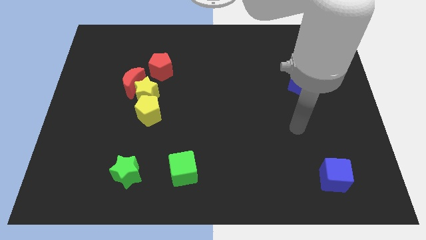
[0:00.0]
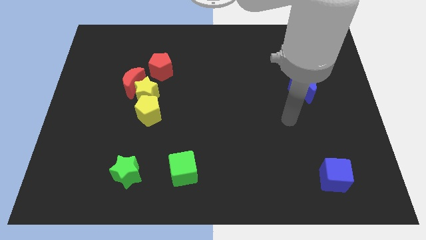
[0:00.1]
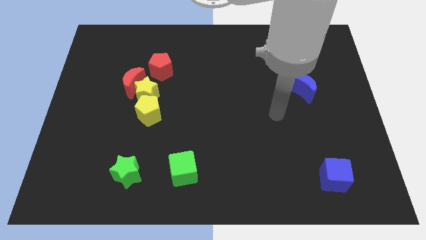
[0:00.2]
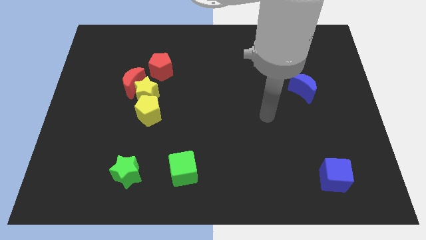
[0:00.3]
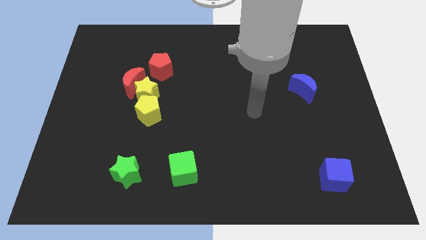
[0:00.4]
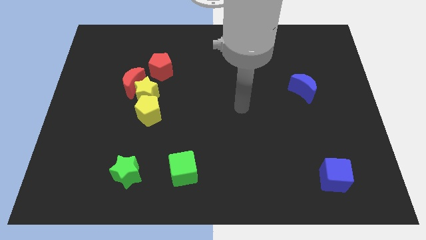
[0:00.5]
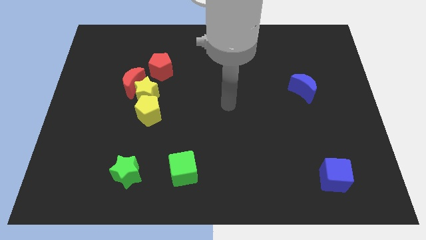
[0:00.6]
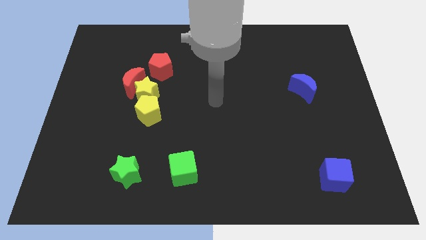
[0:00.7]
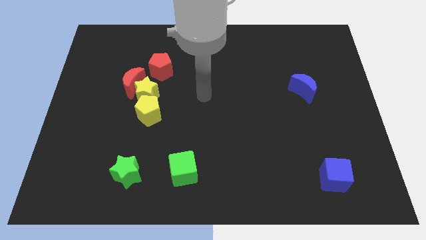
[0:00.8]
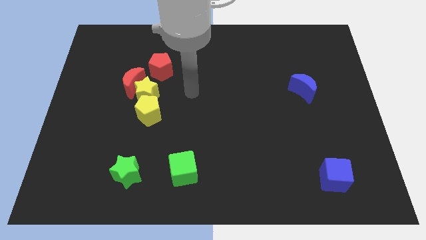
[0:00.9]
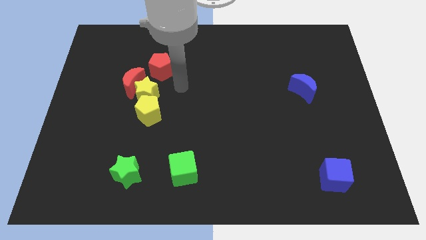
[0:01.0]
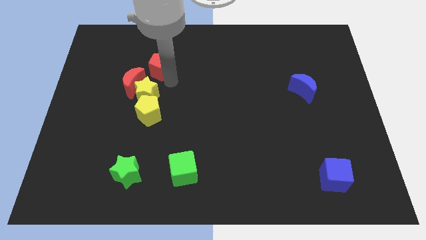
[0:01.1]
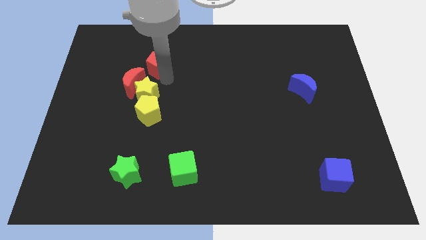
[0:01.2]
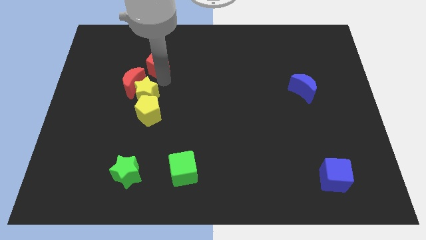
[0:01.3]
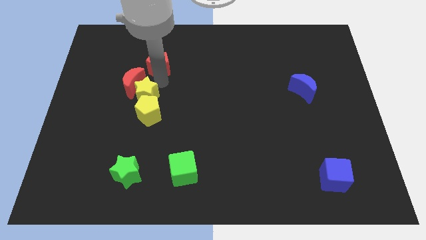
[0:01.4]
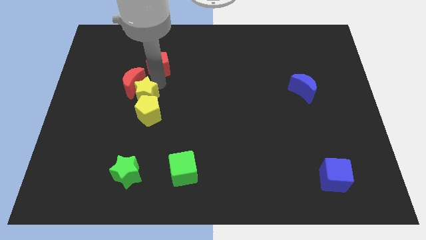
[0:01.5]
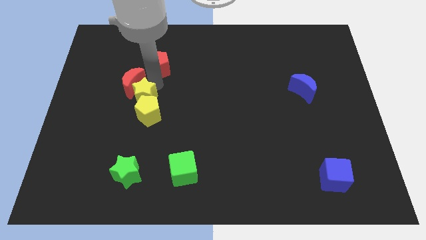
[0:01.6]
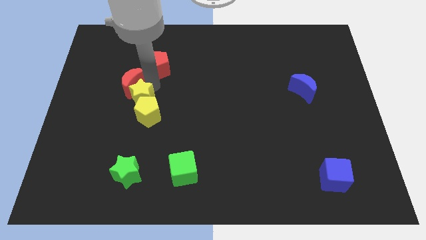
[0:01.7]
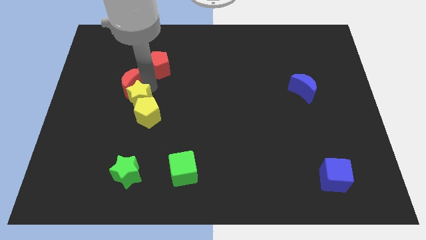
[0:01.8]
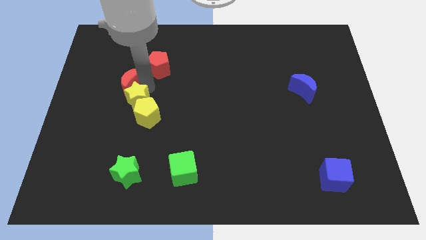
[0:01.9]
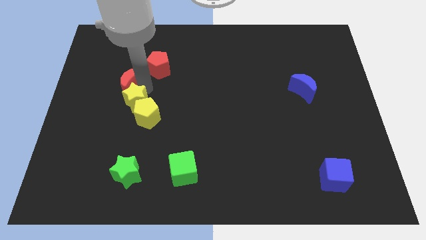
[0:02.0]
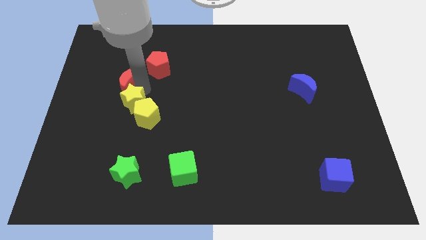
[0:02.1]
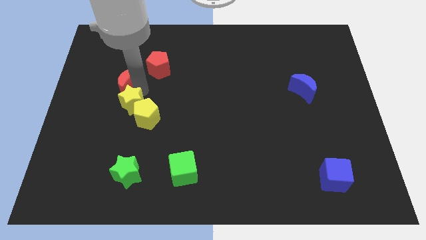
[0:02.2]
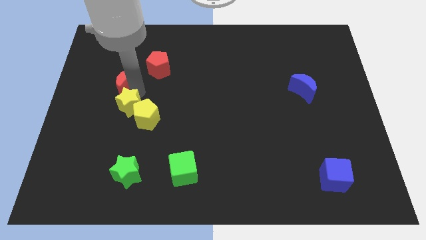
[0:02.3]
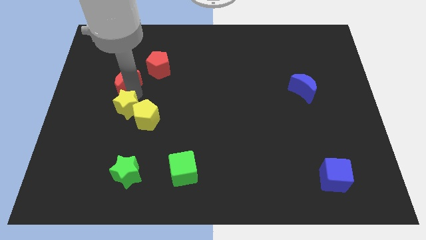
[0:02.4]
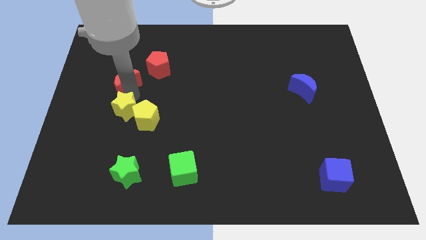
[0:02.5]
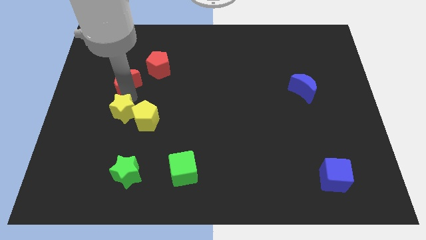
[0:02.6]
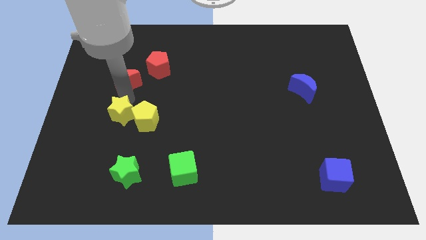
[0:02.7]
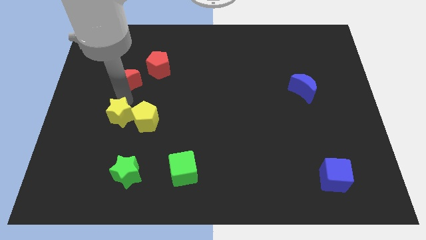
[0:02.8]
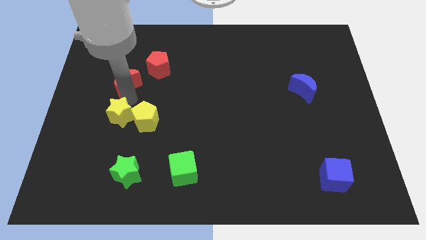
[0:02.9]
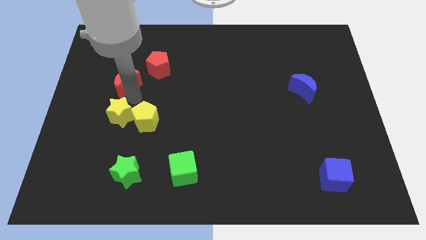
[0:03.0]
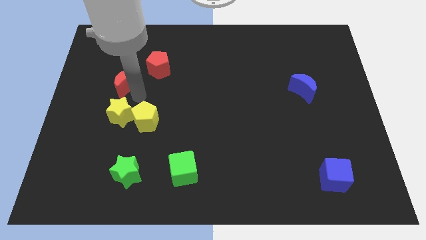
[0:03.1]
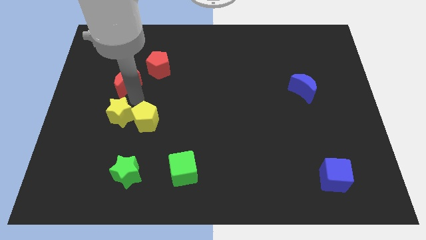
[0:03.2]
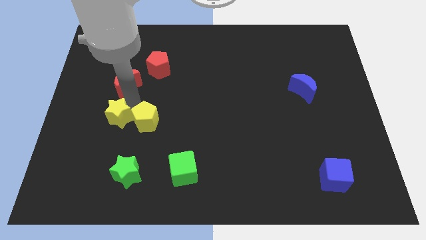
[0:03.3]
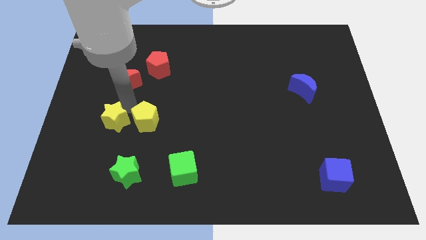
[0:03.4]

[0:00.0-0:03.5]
move the yellow star away from the group of blocks

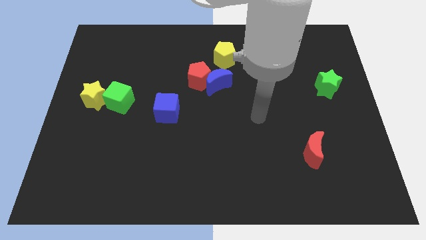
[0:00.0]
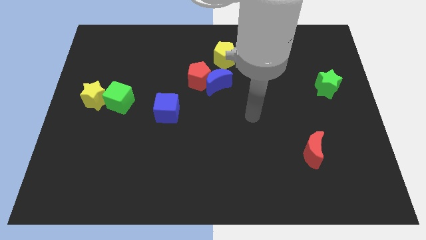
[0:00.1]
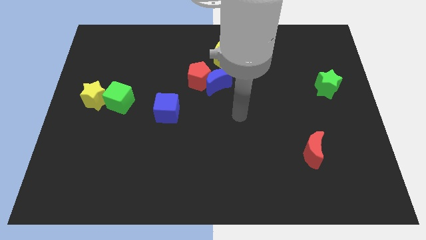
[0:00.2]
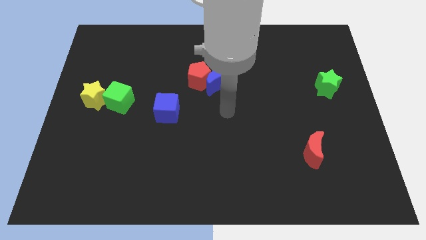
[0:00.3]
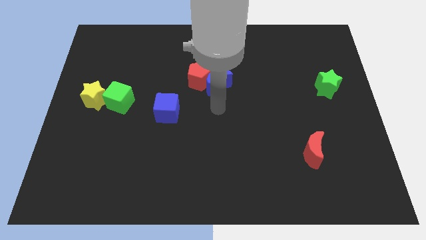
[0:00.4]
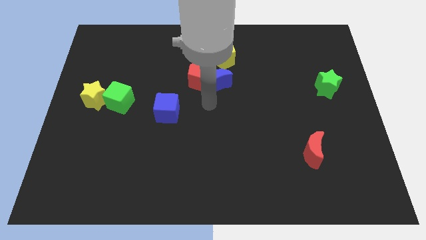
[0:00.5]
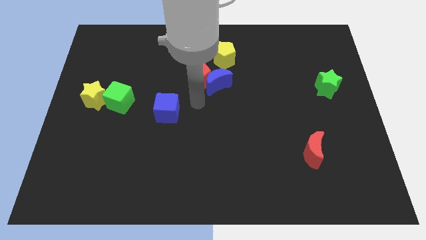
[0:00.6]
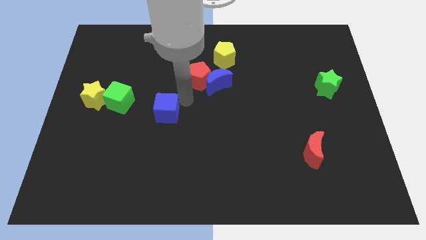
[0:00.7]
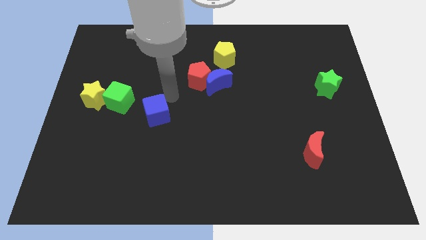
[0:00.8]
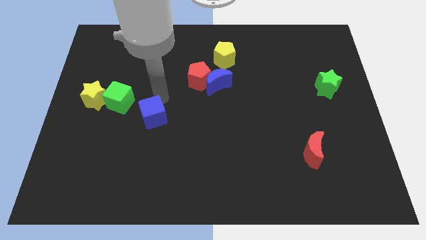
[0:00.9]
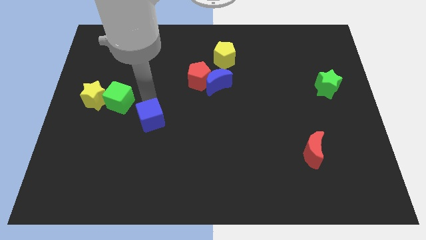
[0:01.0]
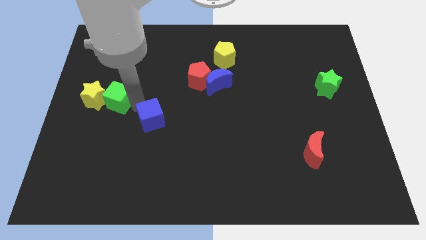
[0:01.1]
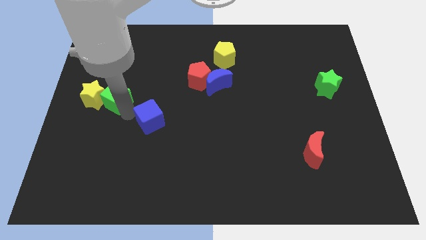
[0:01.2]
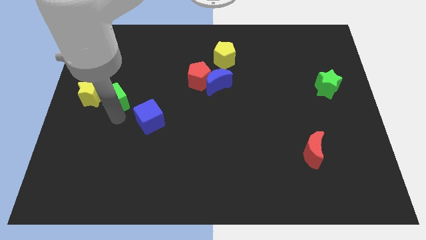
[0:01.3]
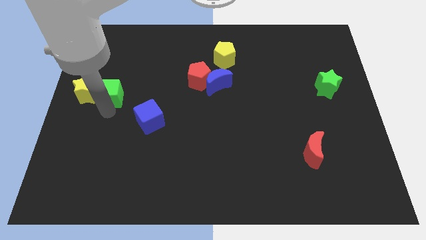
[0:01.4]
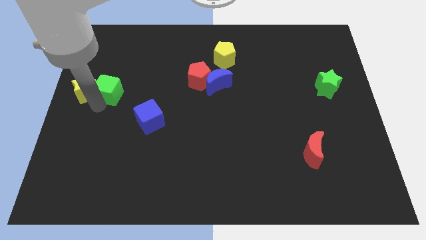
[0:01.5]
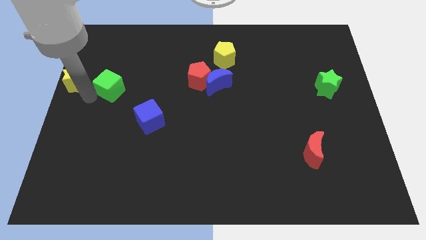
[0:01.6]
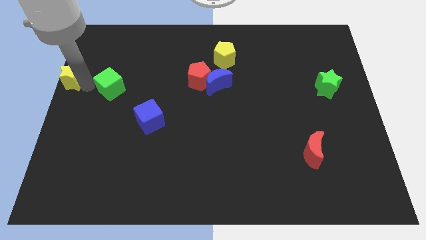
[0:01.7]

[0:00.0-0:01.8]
pull the green cube apart from the yellow star

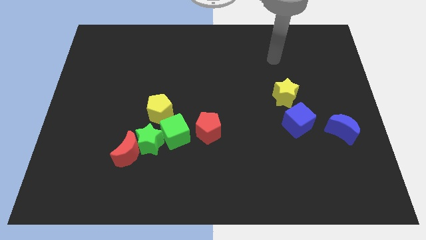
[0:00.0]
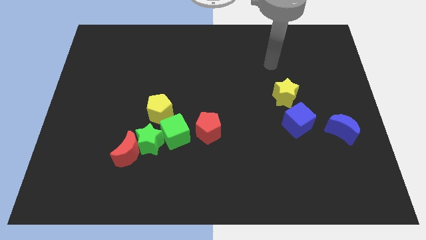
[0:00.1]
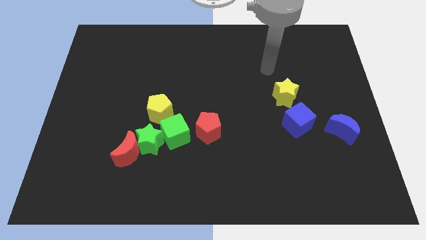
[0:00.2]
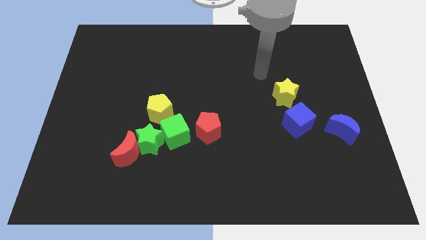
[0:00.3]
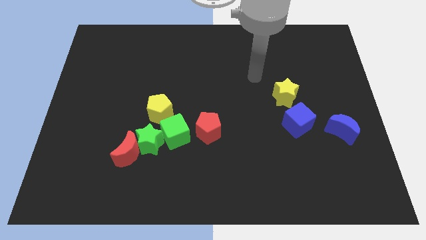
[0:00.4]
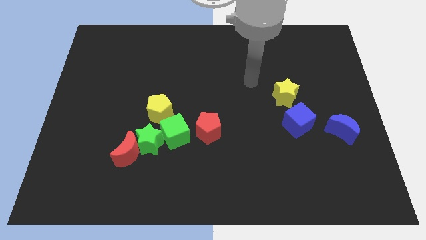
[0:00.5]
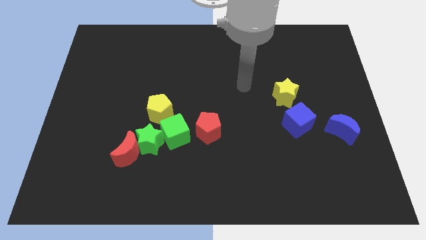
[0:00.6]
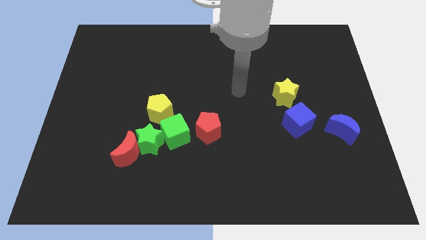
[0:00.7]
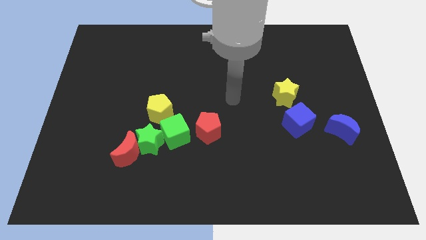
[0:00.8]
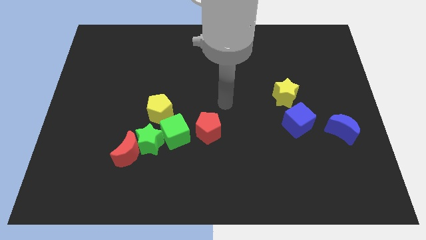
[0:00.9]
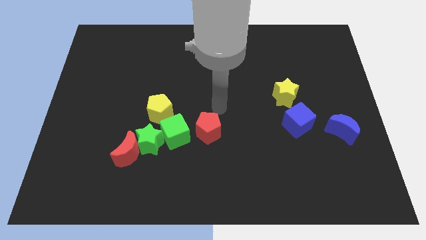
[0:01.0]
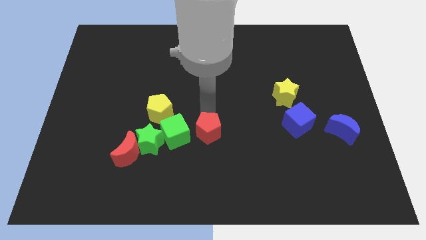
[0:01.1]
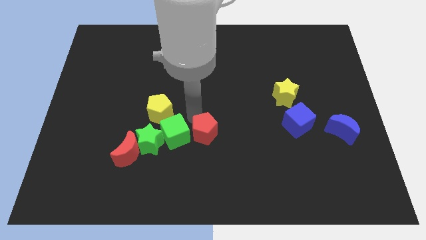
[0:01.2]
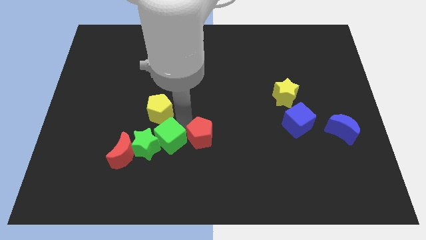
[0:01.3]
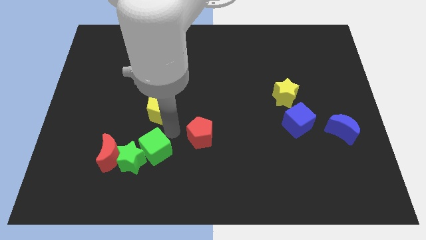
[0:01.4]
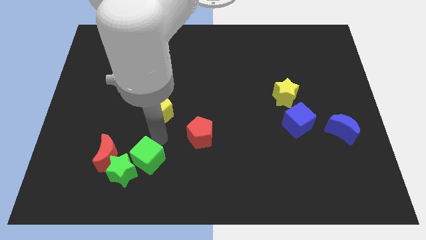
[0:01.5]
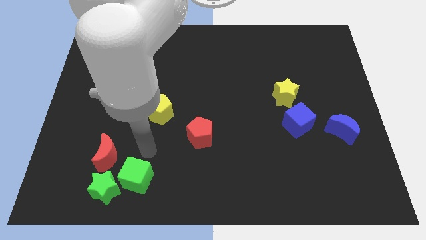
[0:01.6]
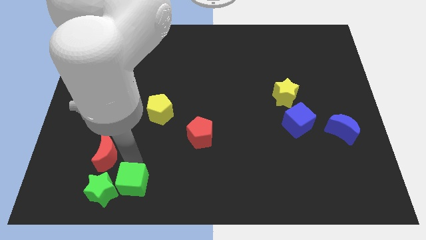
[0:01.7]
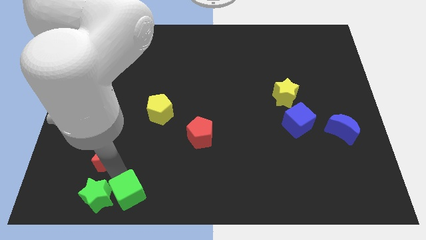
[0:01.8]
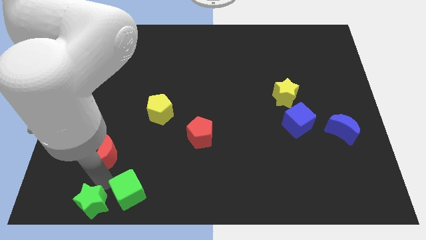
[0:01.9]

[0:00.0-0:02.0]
pull the red moon apart from the green star

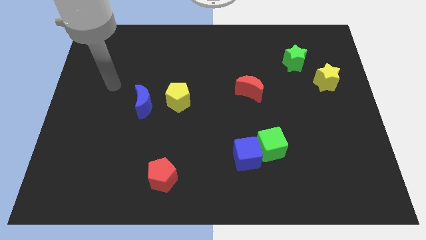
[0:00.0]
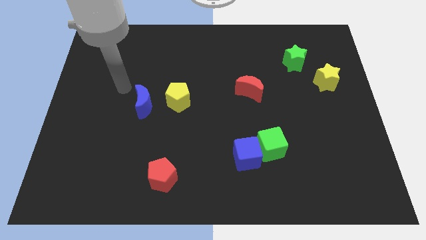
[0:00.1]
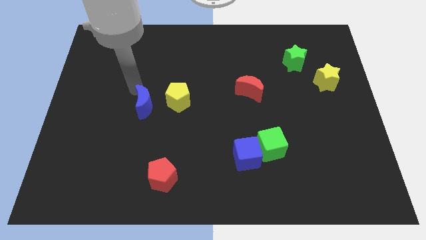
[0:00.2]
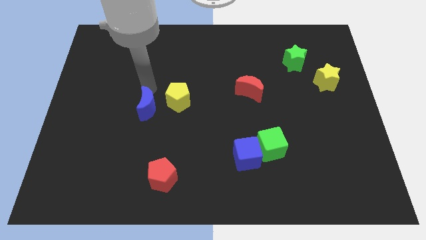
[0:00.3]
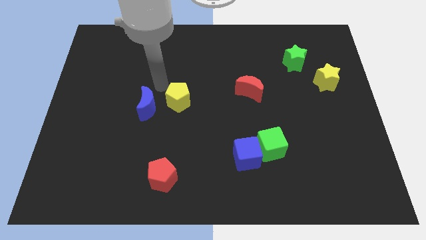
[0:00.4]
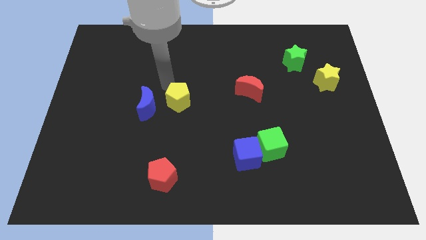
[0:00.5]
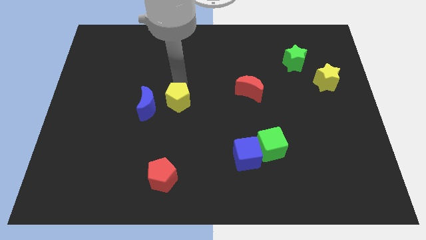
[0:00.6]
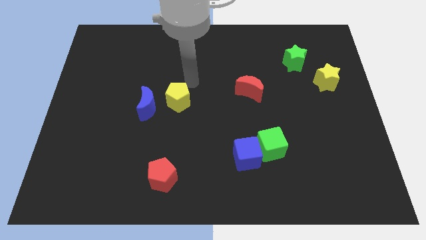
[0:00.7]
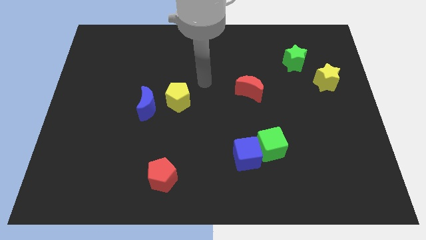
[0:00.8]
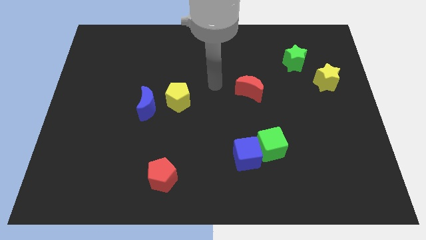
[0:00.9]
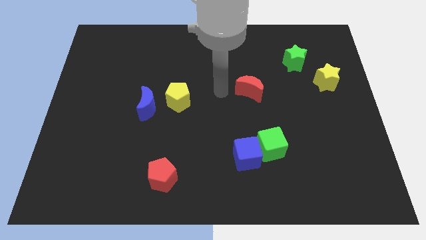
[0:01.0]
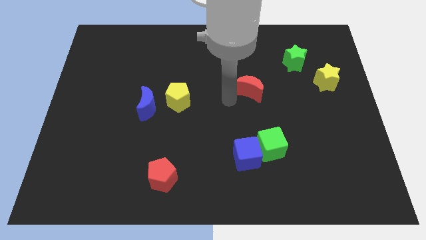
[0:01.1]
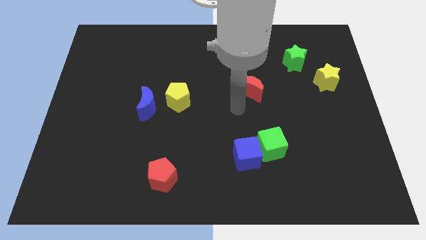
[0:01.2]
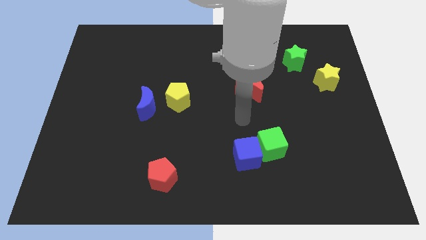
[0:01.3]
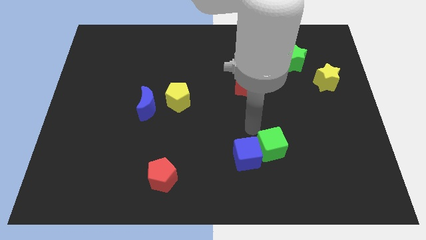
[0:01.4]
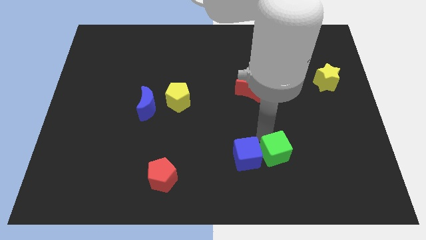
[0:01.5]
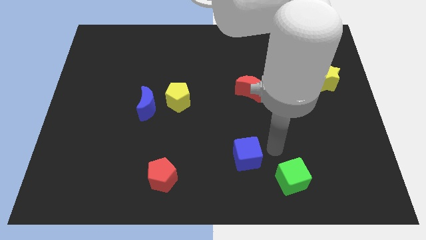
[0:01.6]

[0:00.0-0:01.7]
pull the blue cube apart from the green cube

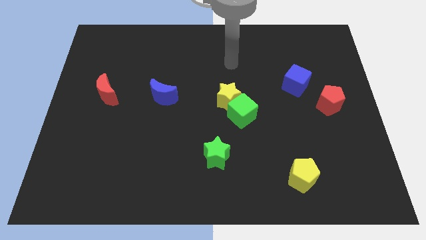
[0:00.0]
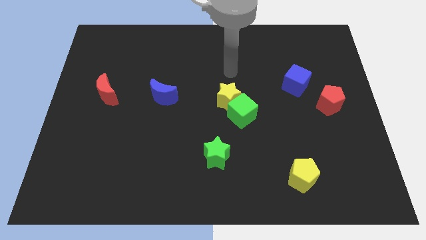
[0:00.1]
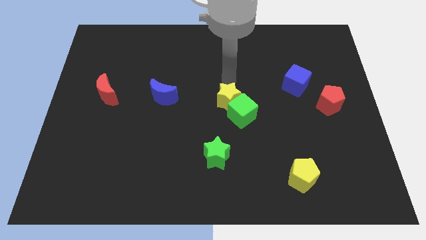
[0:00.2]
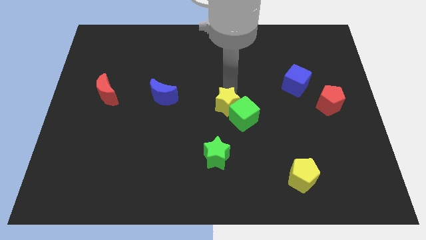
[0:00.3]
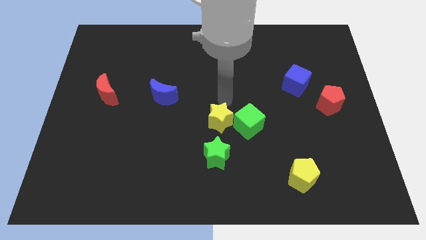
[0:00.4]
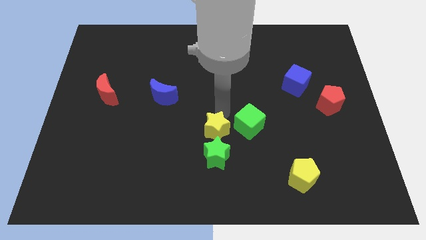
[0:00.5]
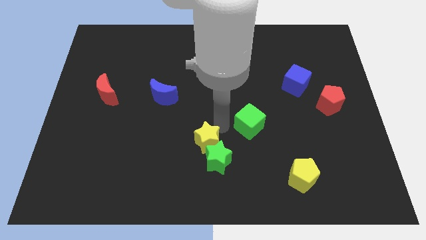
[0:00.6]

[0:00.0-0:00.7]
move the green cube away from the yellow star
